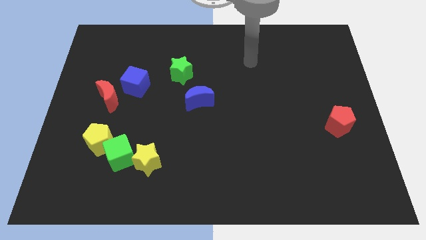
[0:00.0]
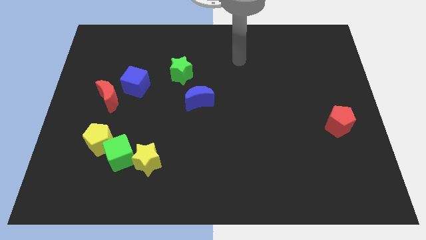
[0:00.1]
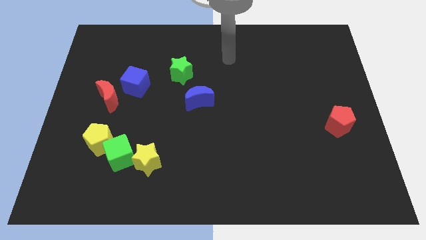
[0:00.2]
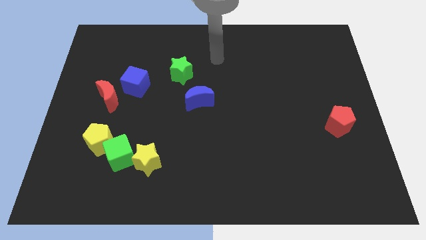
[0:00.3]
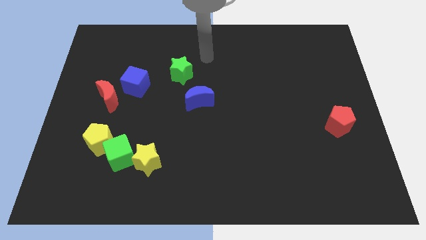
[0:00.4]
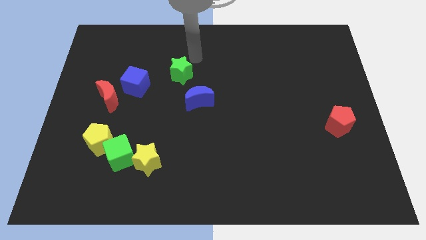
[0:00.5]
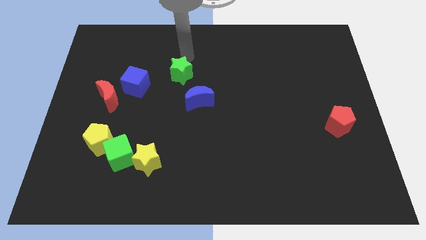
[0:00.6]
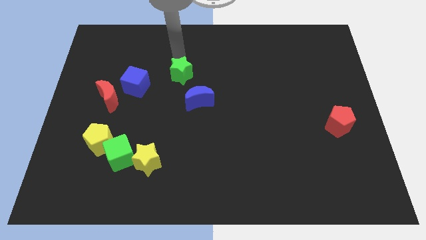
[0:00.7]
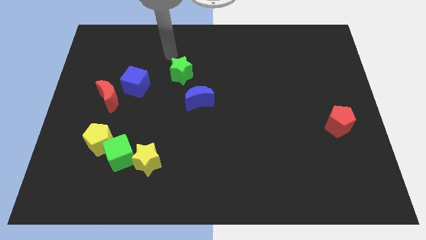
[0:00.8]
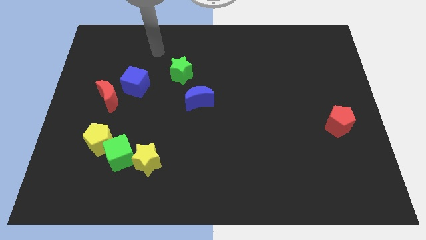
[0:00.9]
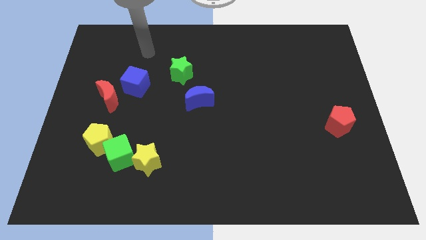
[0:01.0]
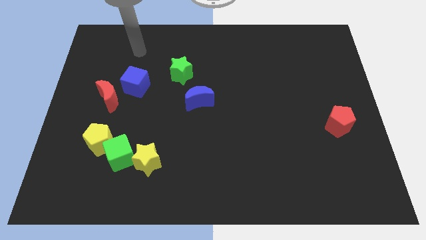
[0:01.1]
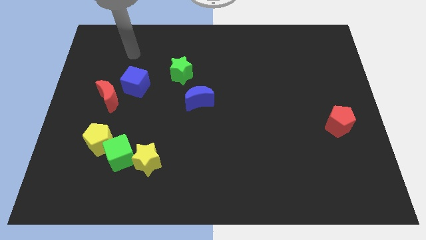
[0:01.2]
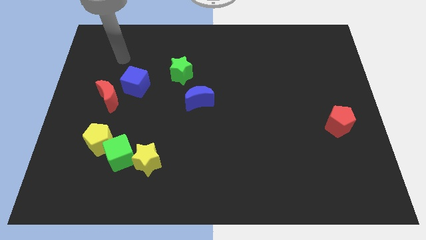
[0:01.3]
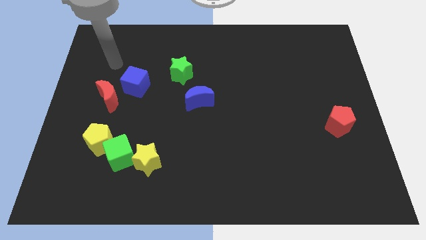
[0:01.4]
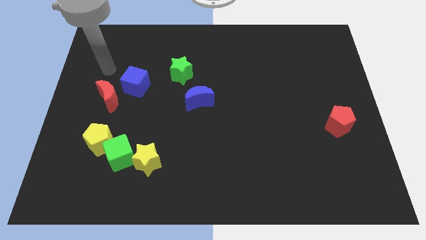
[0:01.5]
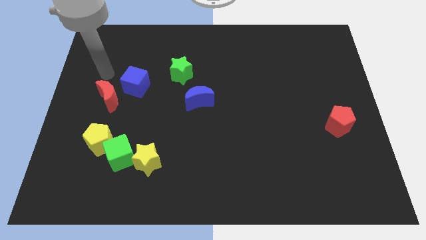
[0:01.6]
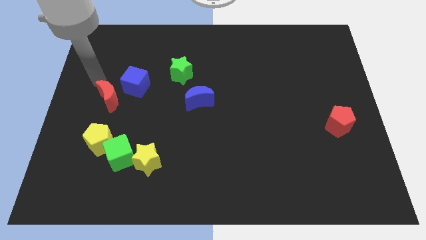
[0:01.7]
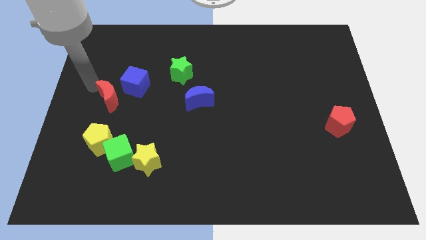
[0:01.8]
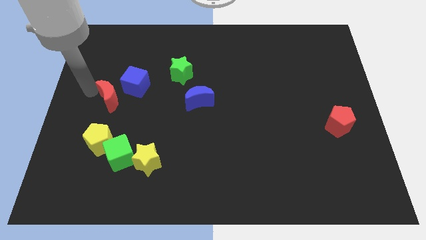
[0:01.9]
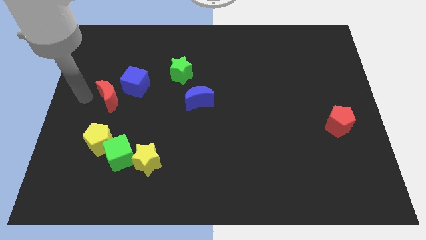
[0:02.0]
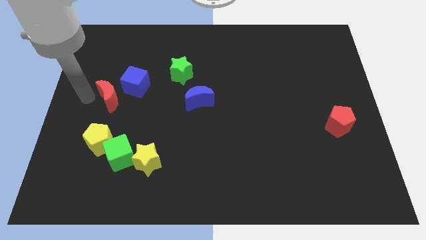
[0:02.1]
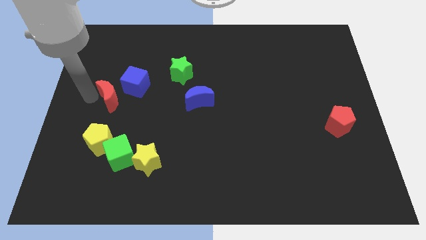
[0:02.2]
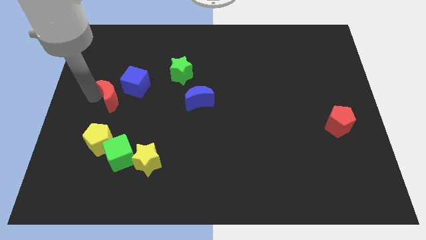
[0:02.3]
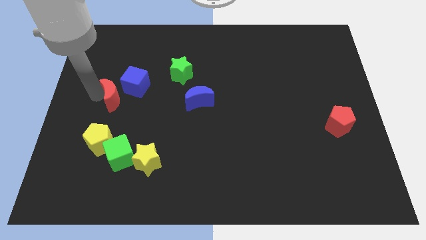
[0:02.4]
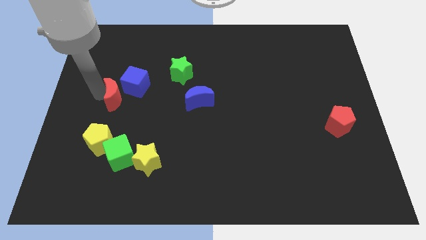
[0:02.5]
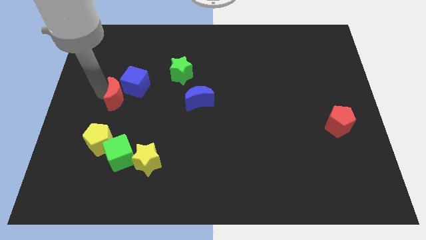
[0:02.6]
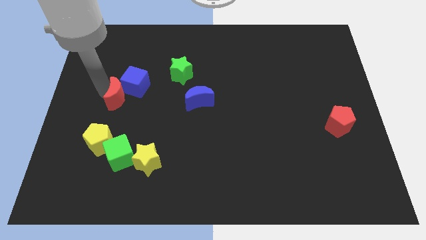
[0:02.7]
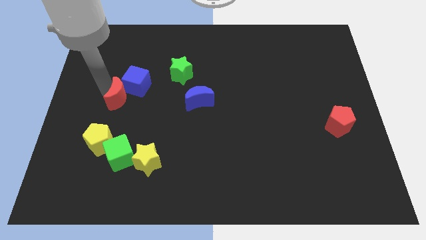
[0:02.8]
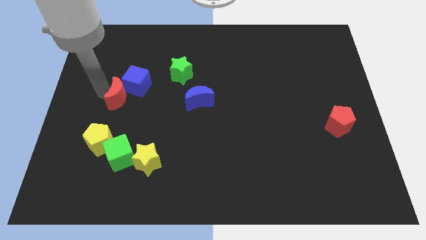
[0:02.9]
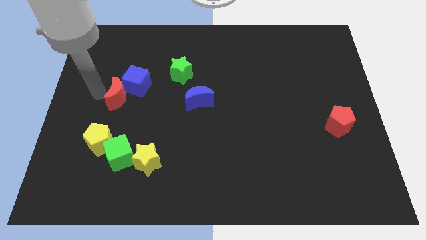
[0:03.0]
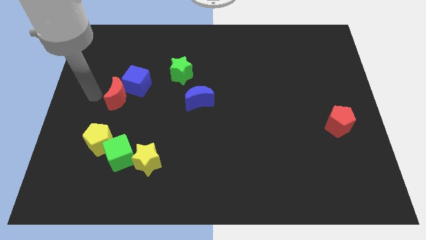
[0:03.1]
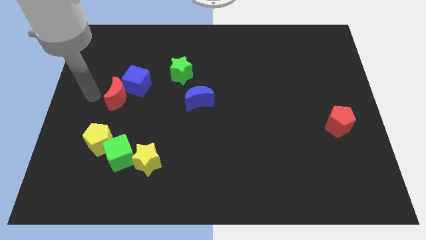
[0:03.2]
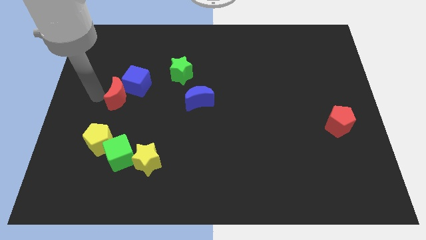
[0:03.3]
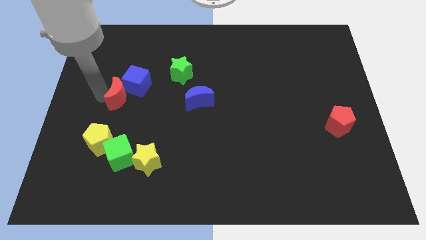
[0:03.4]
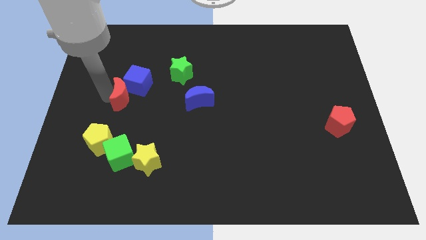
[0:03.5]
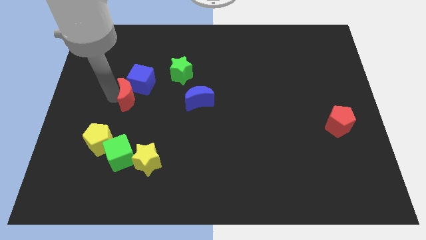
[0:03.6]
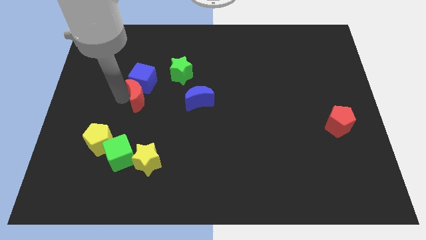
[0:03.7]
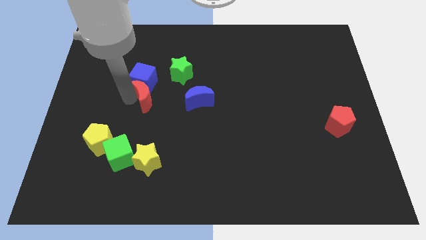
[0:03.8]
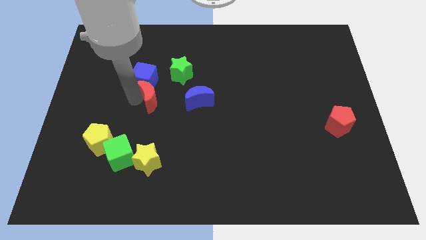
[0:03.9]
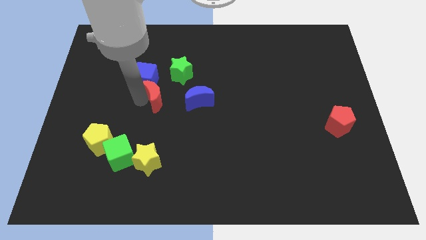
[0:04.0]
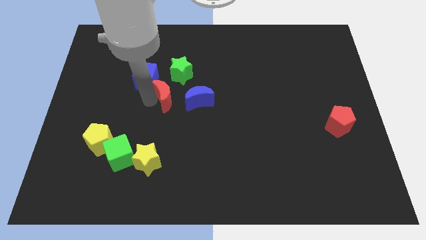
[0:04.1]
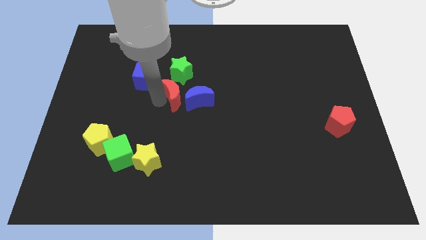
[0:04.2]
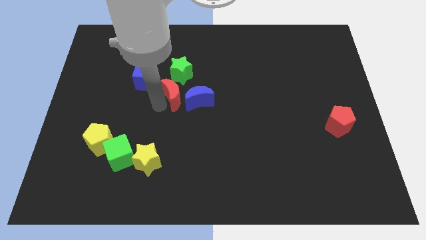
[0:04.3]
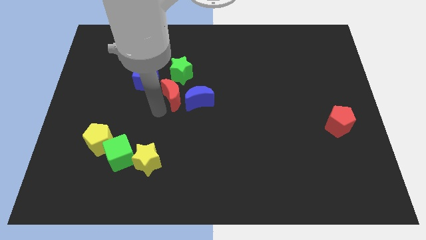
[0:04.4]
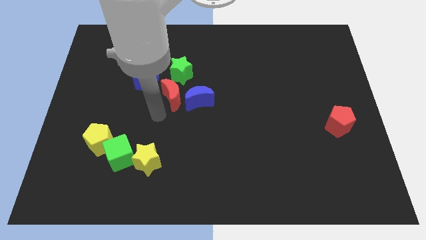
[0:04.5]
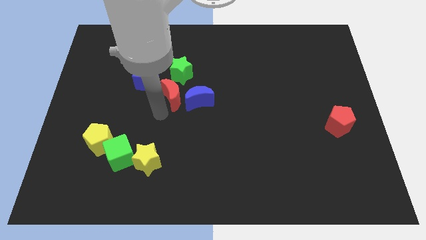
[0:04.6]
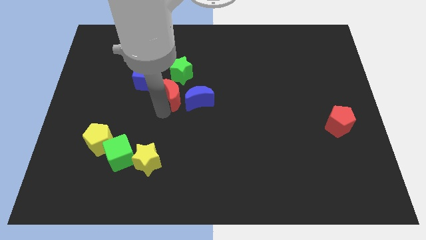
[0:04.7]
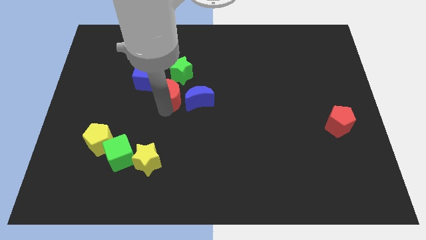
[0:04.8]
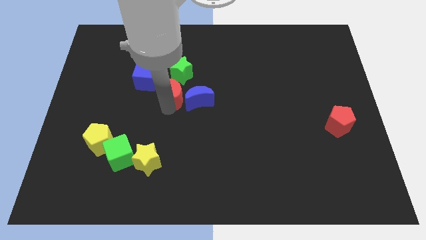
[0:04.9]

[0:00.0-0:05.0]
push the red moon right of the blue cube

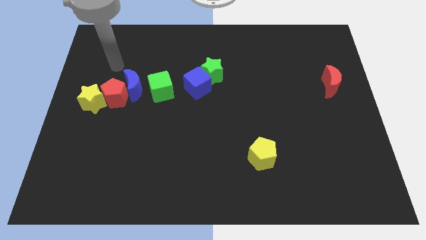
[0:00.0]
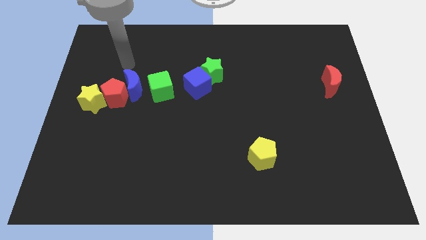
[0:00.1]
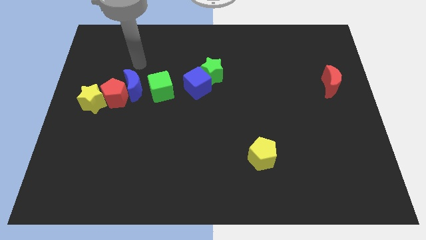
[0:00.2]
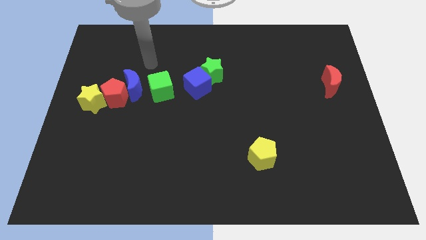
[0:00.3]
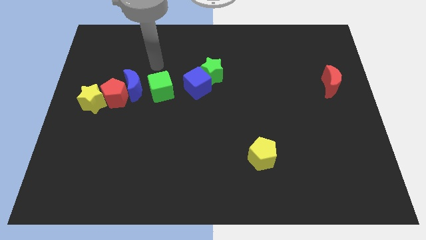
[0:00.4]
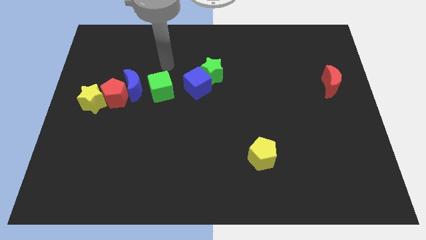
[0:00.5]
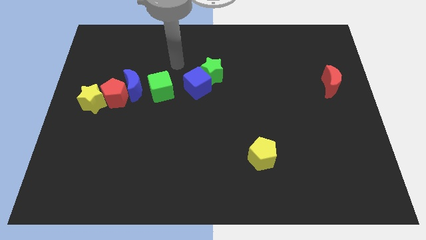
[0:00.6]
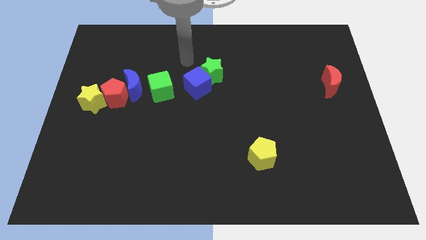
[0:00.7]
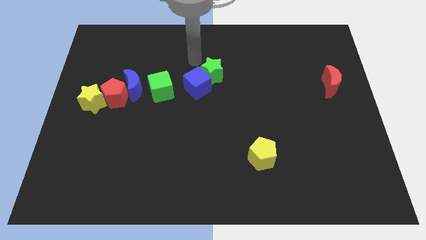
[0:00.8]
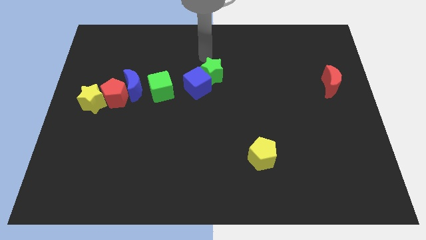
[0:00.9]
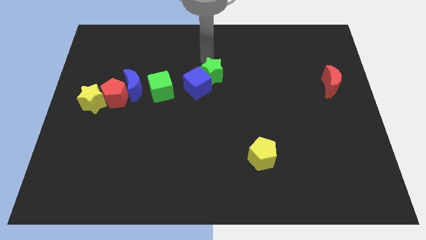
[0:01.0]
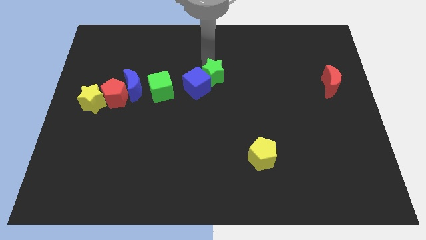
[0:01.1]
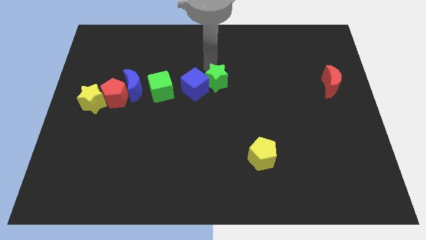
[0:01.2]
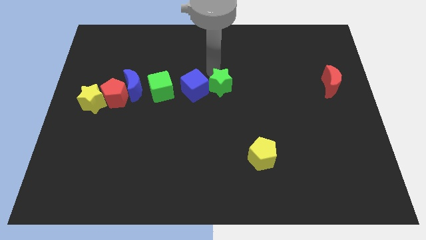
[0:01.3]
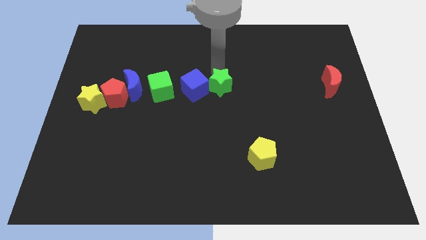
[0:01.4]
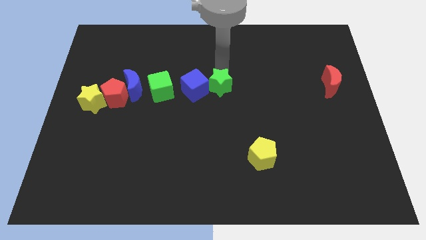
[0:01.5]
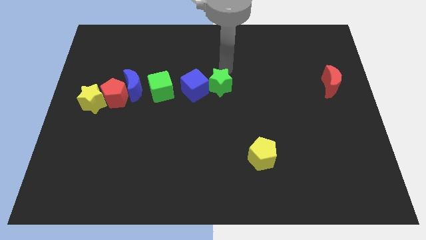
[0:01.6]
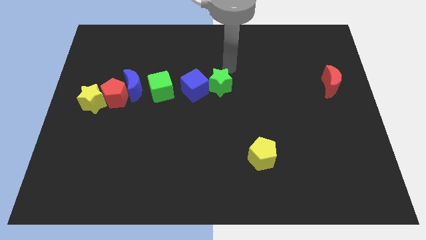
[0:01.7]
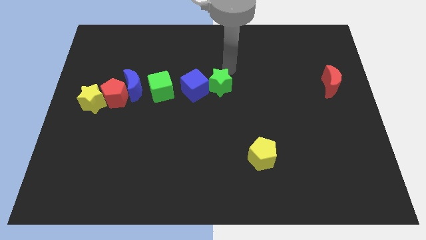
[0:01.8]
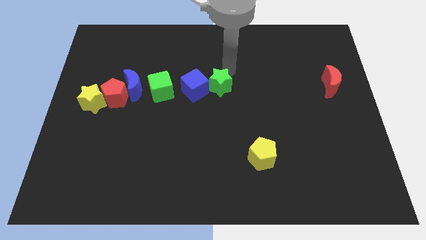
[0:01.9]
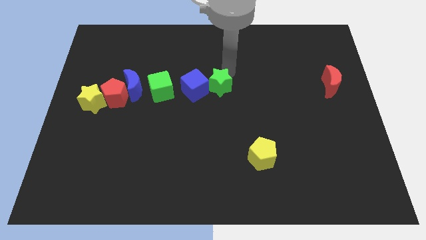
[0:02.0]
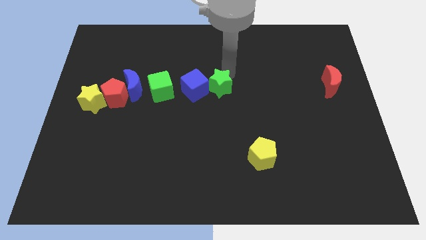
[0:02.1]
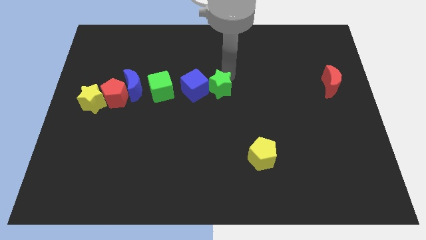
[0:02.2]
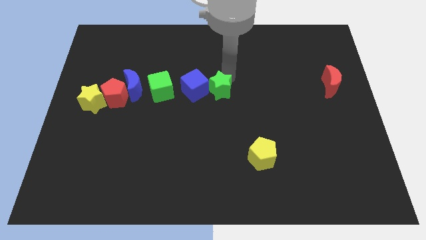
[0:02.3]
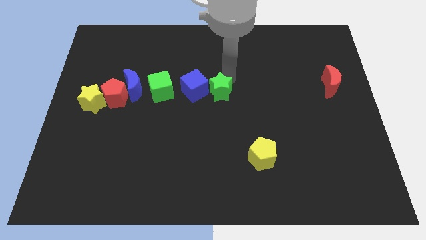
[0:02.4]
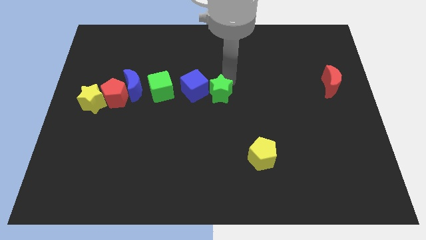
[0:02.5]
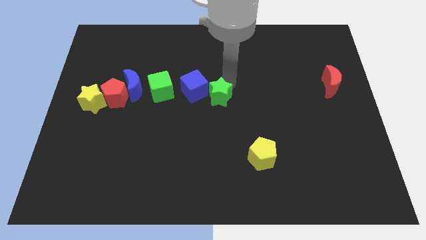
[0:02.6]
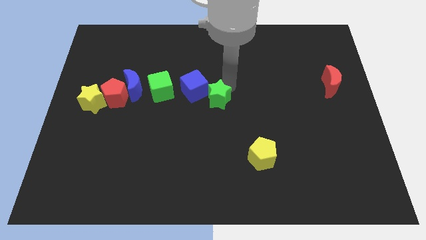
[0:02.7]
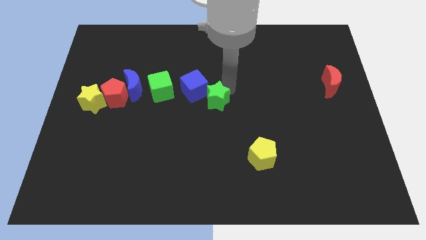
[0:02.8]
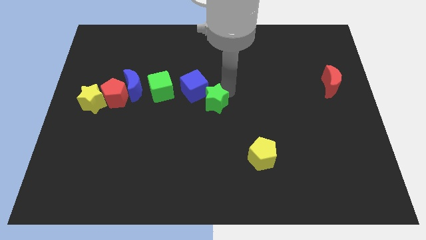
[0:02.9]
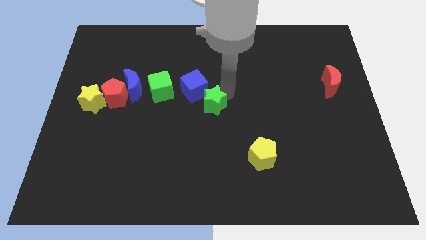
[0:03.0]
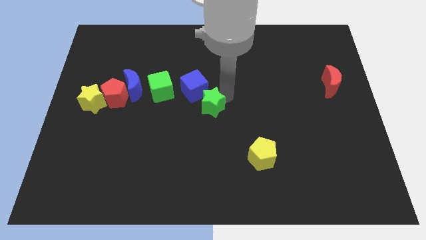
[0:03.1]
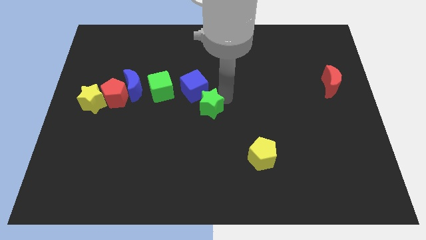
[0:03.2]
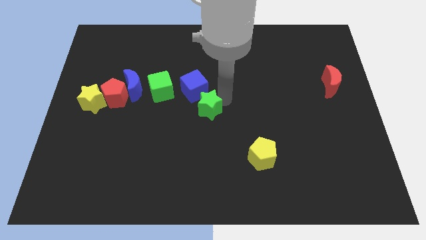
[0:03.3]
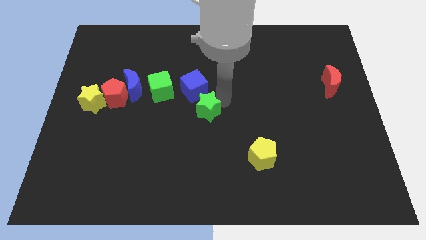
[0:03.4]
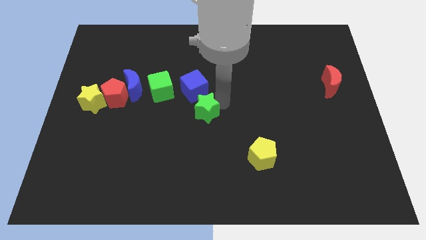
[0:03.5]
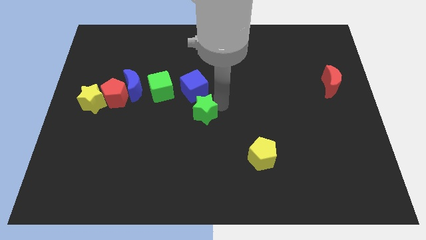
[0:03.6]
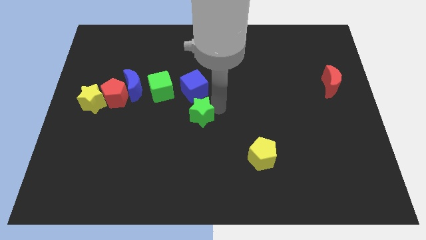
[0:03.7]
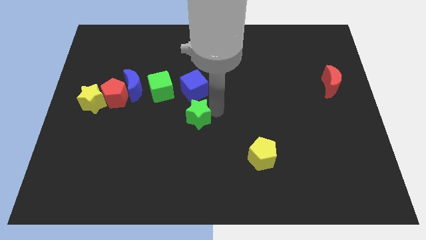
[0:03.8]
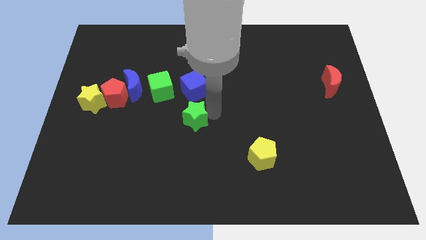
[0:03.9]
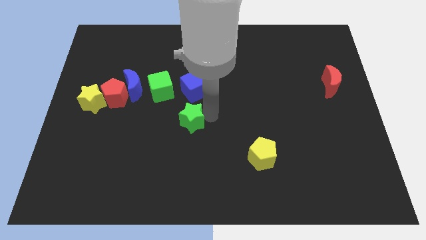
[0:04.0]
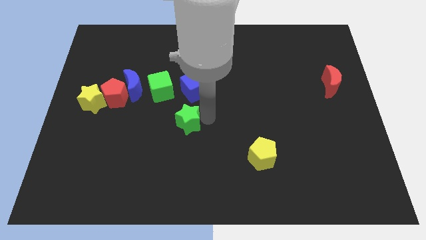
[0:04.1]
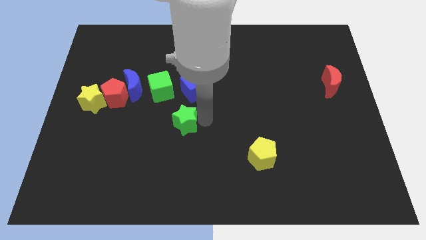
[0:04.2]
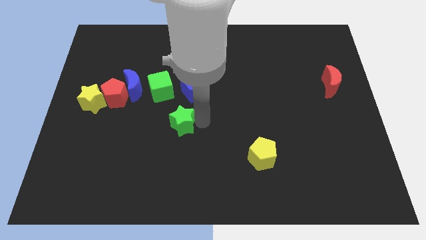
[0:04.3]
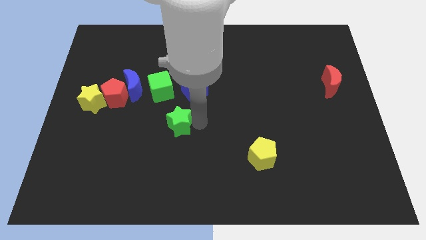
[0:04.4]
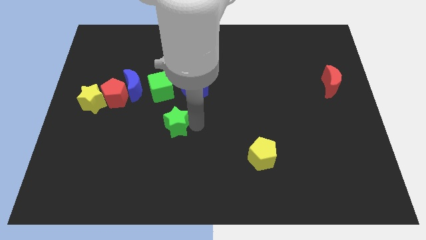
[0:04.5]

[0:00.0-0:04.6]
put the green star to the bottom of the green cube
